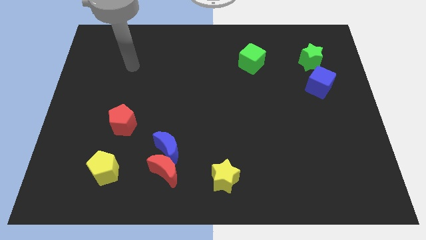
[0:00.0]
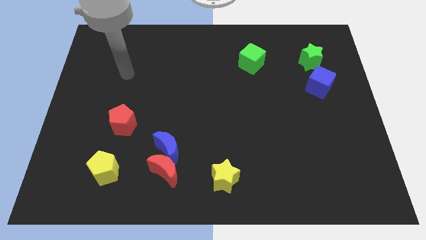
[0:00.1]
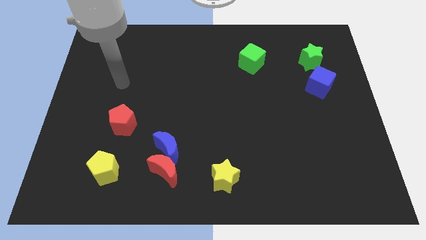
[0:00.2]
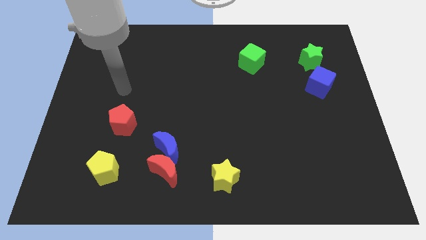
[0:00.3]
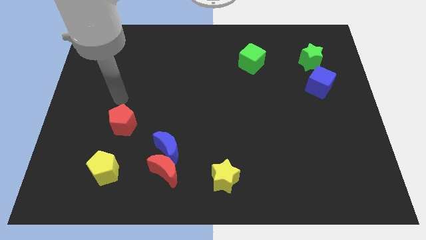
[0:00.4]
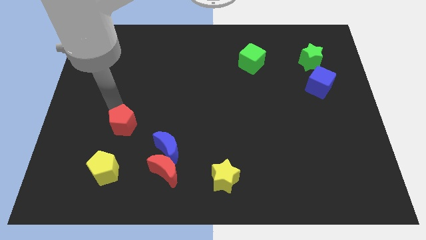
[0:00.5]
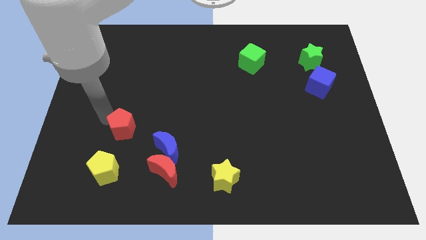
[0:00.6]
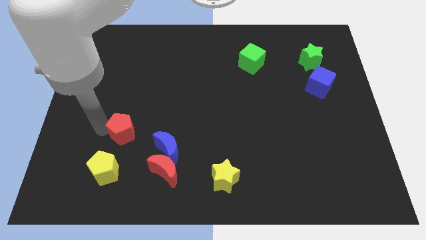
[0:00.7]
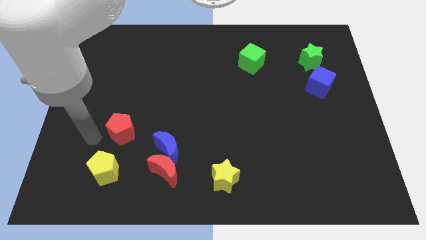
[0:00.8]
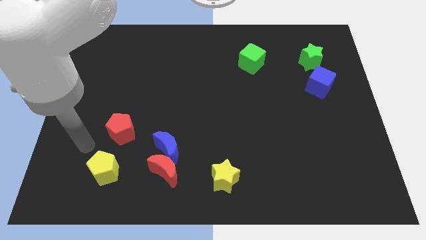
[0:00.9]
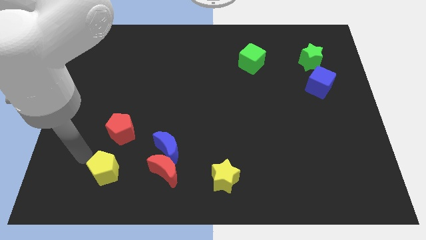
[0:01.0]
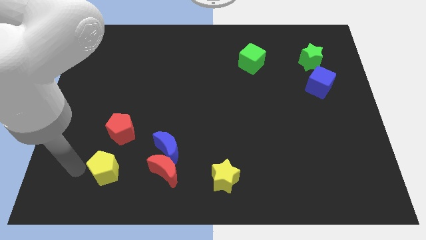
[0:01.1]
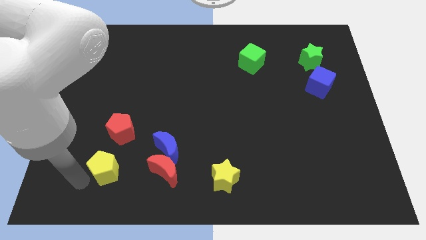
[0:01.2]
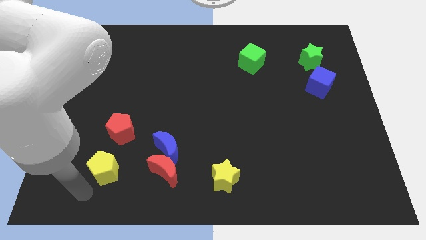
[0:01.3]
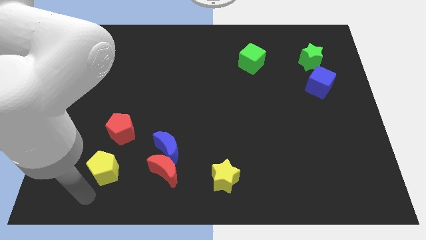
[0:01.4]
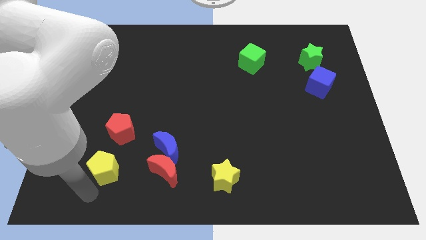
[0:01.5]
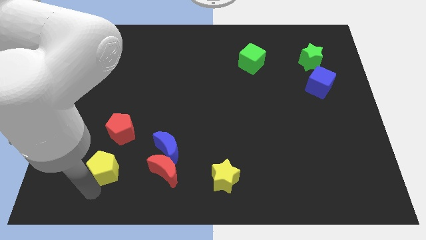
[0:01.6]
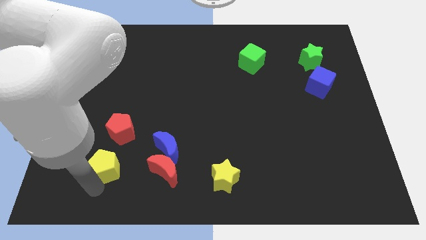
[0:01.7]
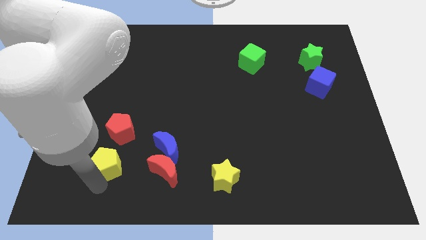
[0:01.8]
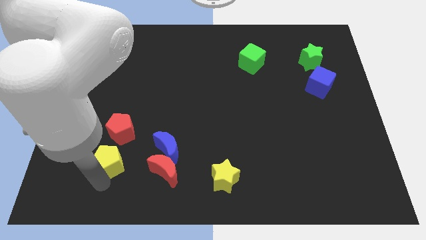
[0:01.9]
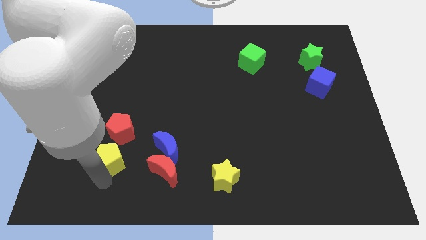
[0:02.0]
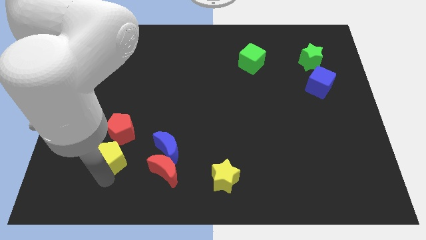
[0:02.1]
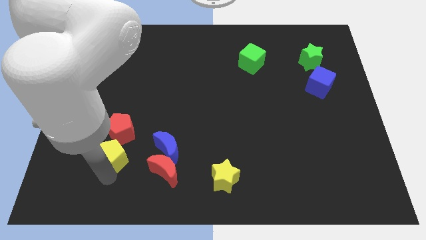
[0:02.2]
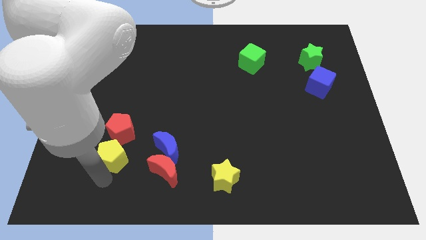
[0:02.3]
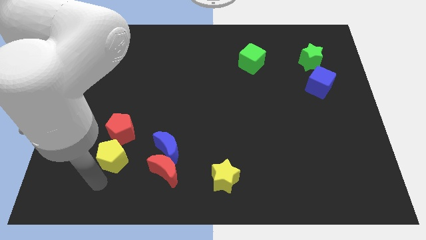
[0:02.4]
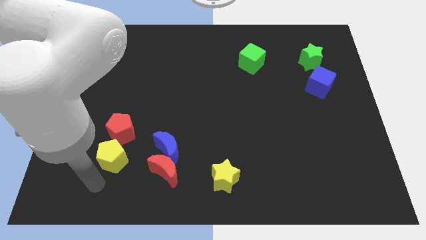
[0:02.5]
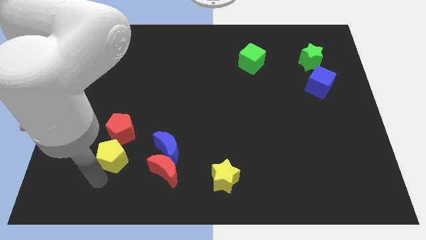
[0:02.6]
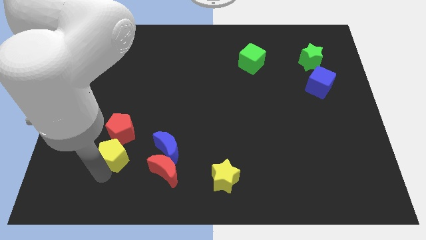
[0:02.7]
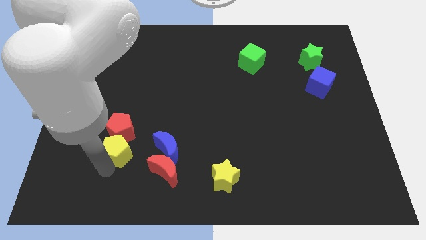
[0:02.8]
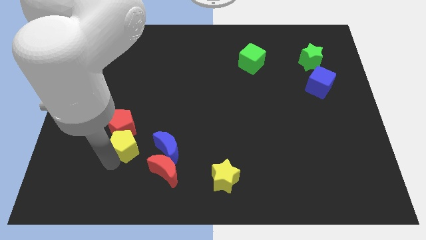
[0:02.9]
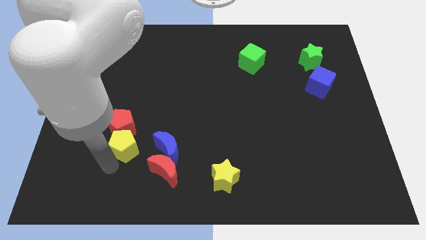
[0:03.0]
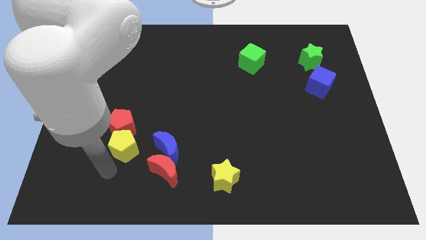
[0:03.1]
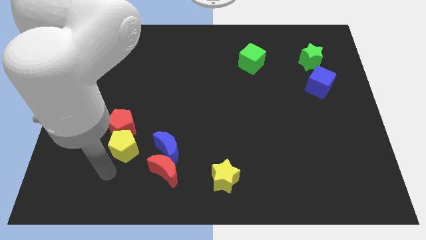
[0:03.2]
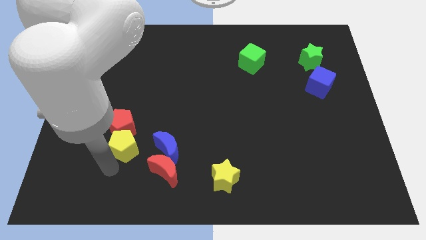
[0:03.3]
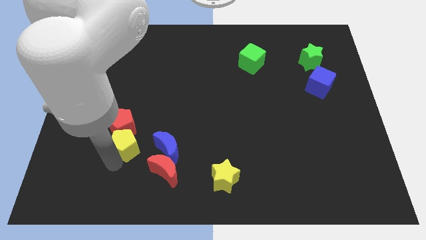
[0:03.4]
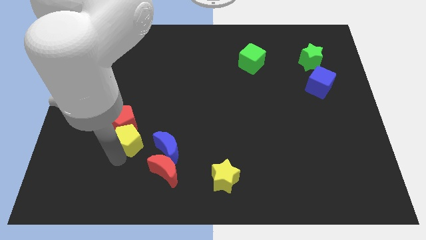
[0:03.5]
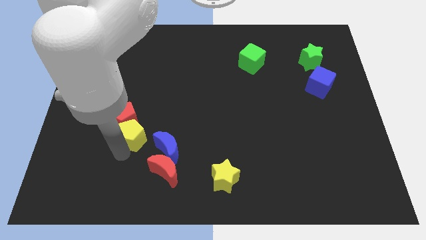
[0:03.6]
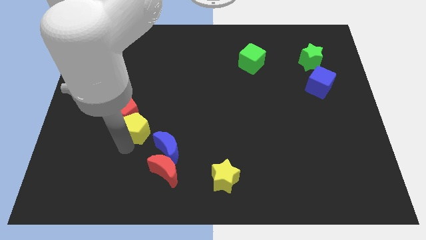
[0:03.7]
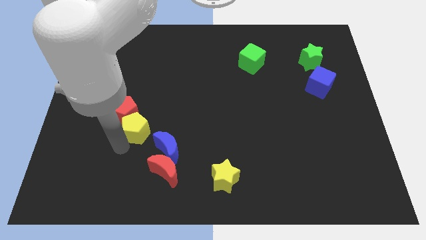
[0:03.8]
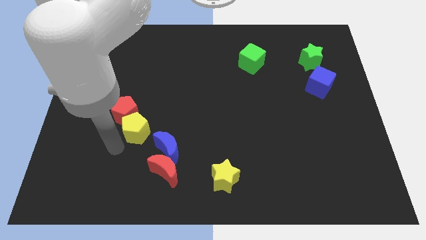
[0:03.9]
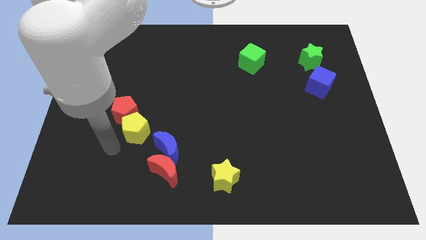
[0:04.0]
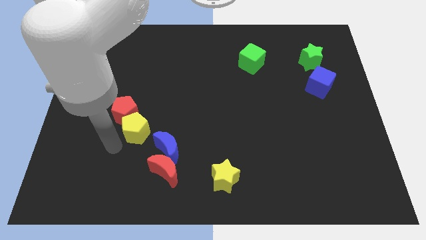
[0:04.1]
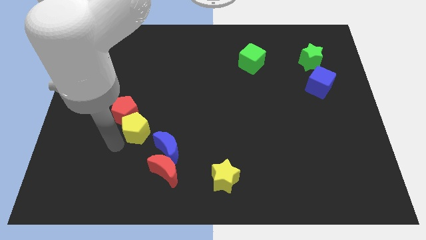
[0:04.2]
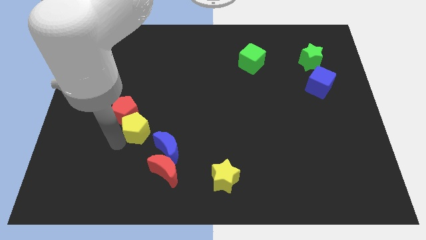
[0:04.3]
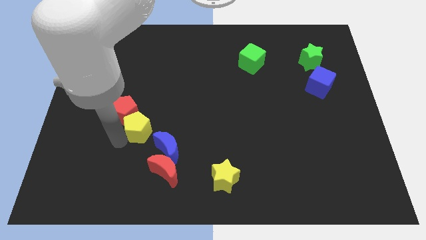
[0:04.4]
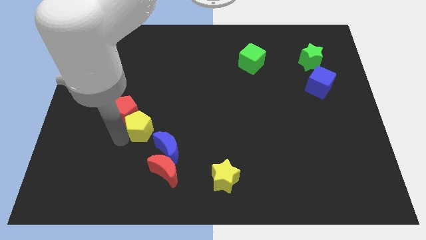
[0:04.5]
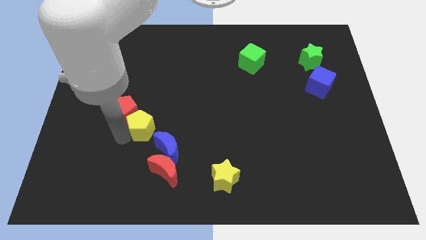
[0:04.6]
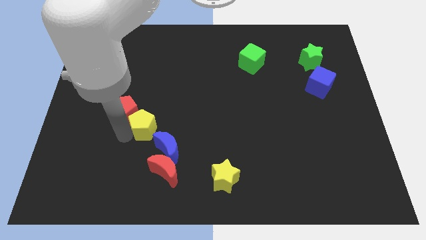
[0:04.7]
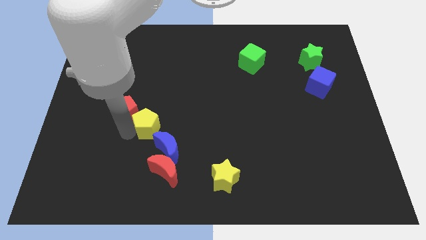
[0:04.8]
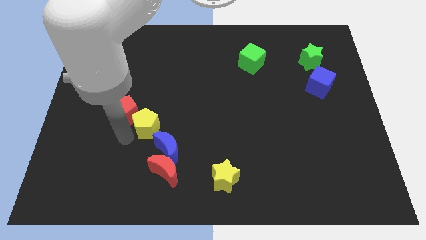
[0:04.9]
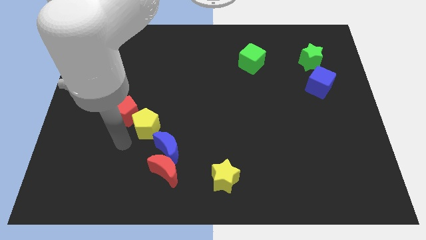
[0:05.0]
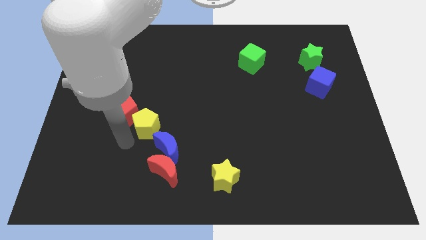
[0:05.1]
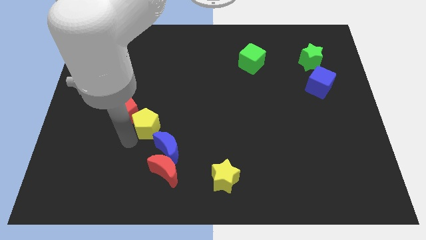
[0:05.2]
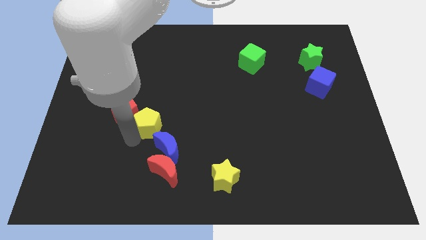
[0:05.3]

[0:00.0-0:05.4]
slide the yellow pentagon to the top of the blue moon

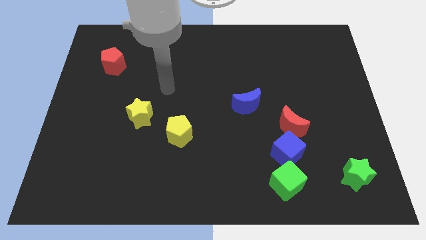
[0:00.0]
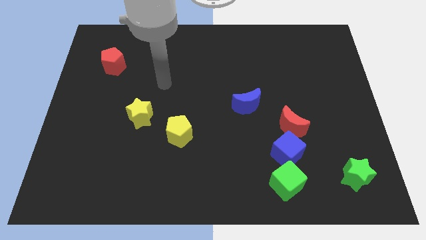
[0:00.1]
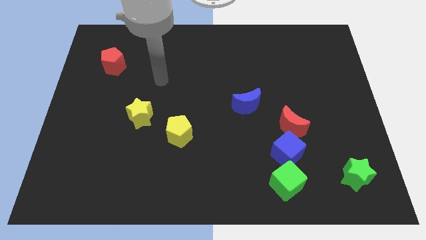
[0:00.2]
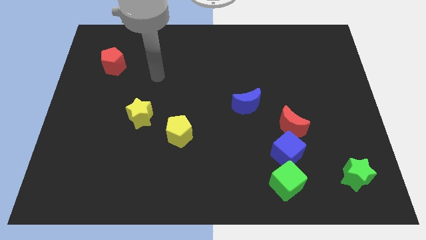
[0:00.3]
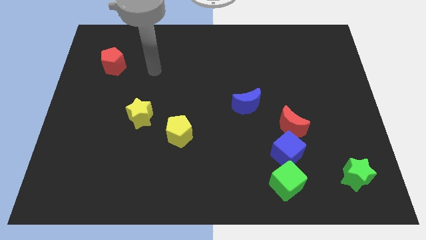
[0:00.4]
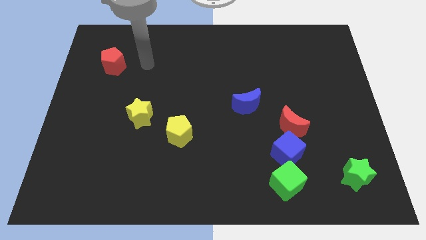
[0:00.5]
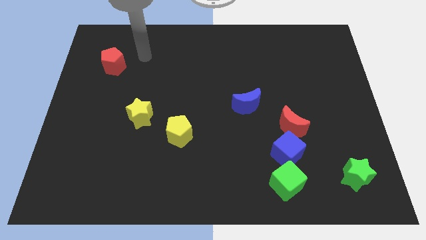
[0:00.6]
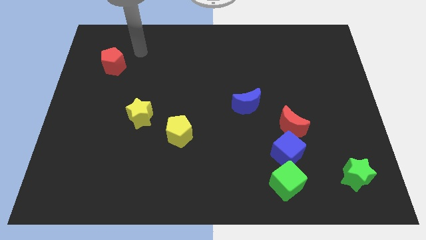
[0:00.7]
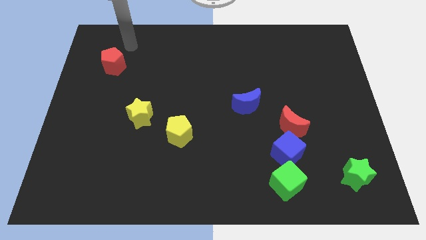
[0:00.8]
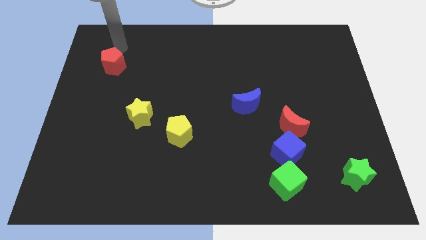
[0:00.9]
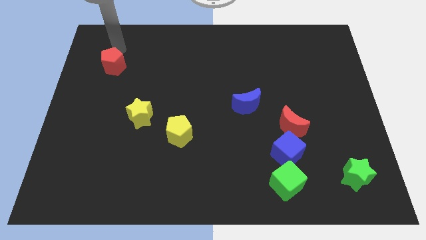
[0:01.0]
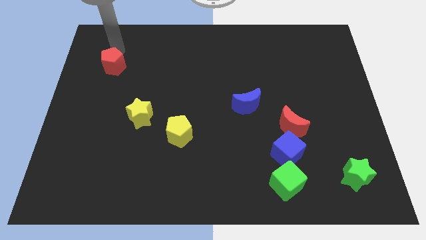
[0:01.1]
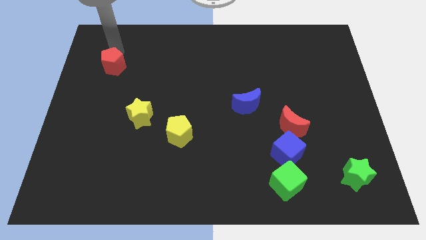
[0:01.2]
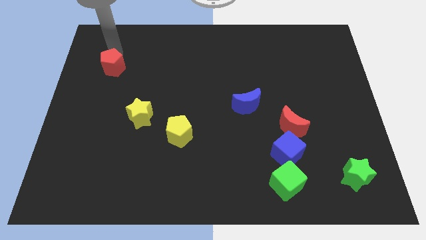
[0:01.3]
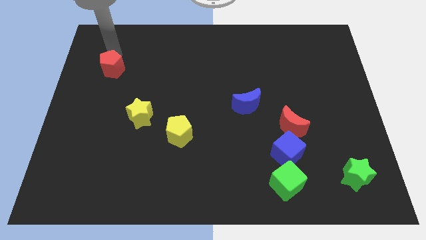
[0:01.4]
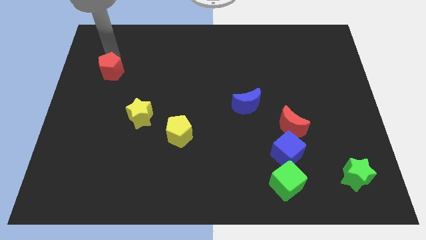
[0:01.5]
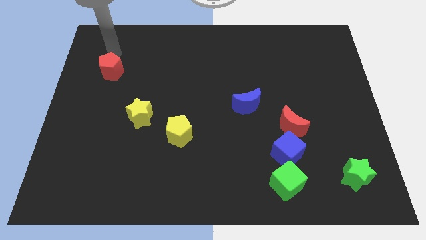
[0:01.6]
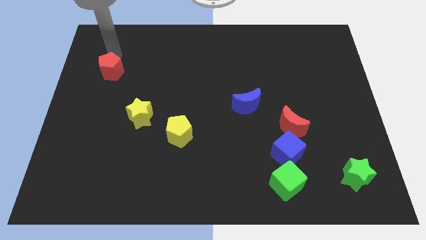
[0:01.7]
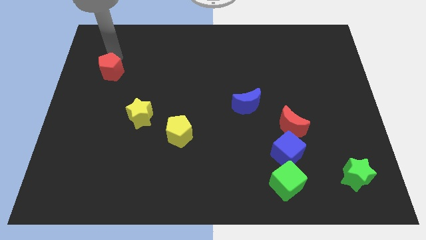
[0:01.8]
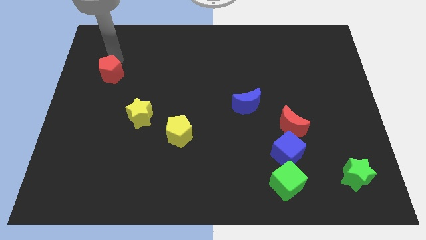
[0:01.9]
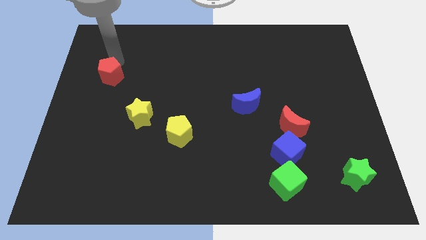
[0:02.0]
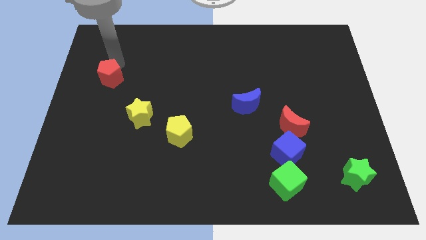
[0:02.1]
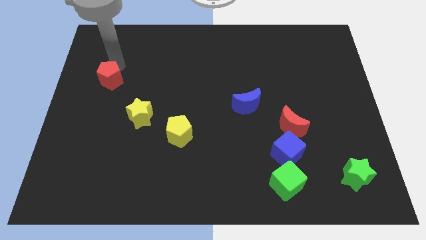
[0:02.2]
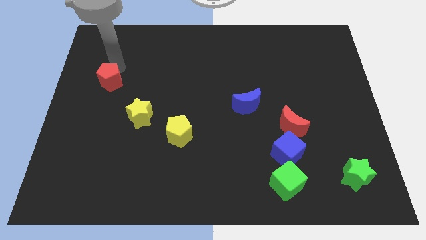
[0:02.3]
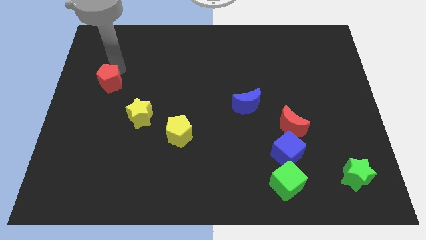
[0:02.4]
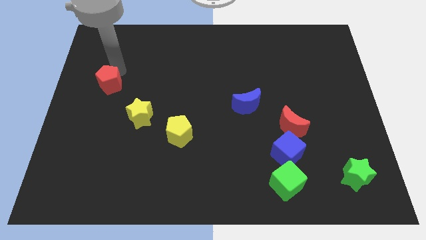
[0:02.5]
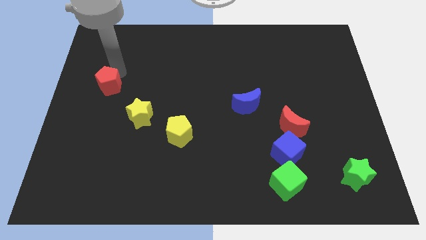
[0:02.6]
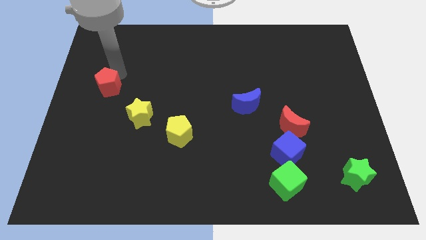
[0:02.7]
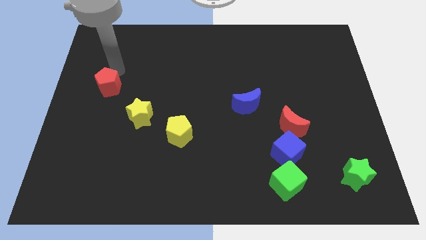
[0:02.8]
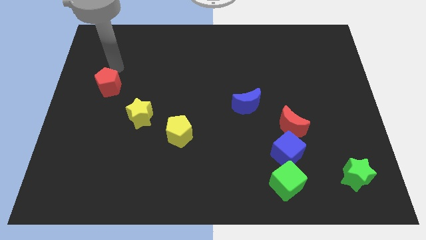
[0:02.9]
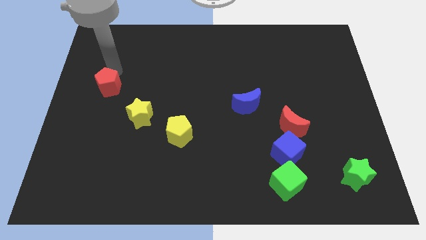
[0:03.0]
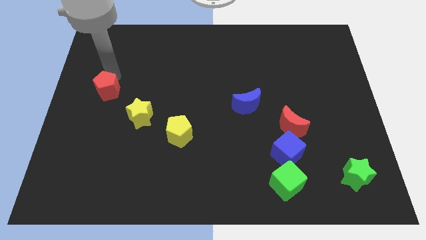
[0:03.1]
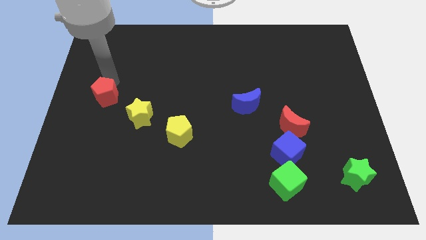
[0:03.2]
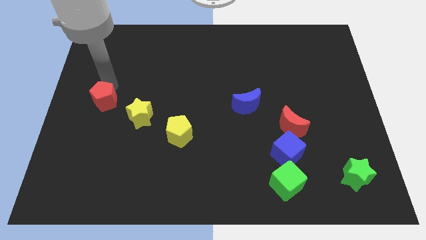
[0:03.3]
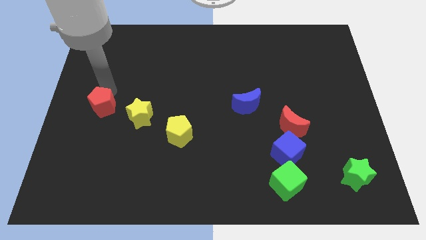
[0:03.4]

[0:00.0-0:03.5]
push the red pentagon to the left side of the yellow star
